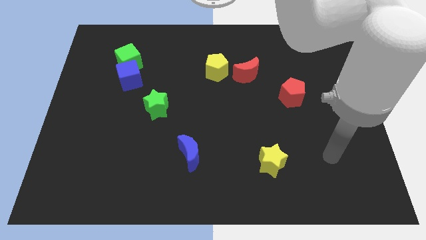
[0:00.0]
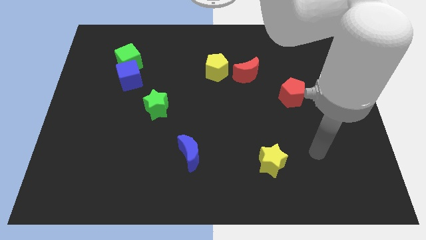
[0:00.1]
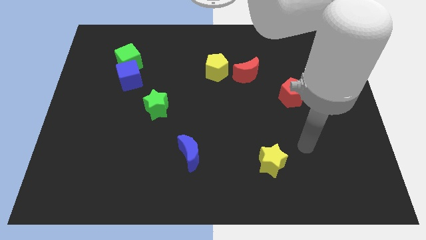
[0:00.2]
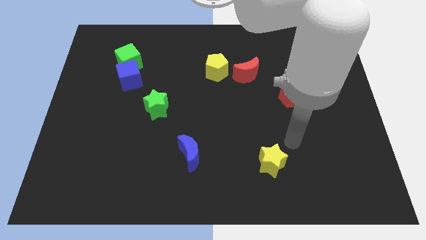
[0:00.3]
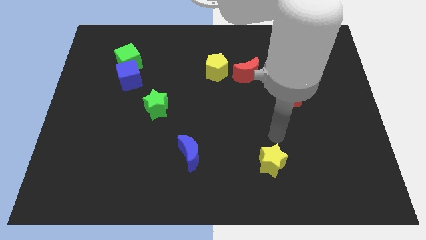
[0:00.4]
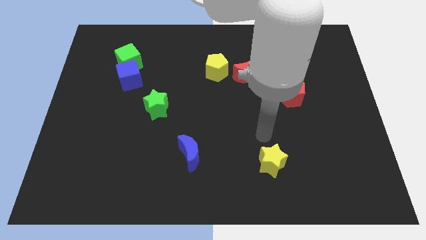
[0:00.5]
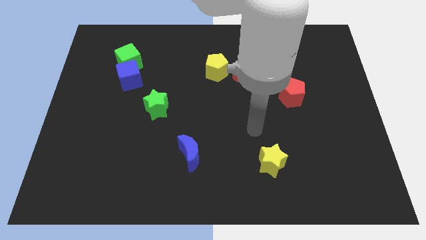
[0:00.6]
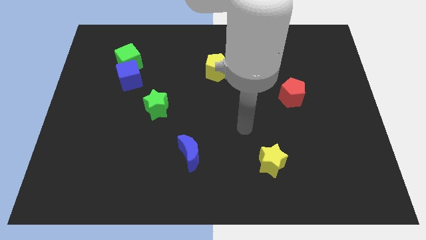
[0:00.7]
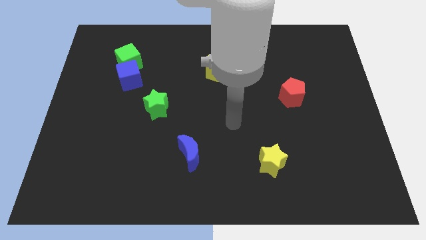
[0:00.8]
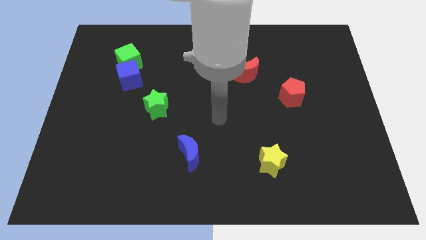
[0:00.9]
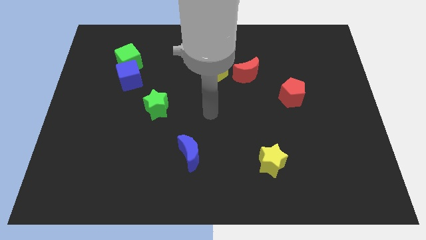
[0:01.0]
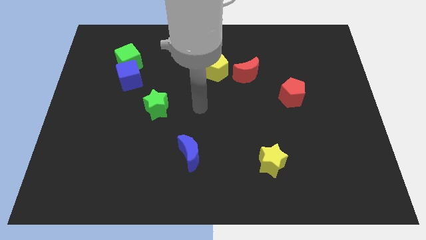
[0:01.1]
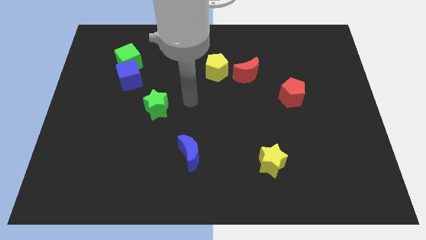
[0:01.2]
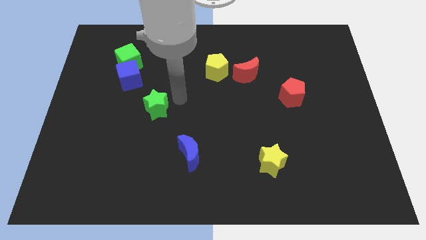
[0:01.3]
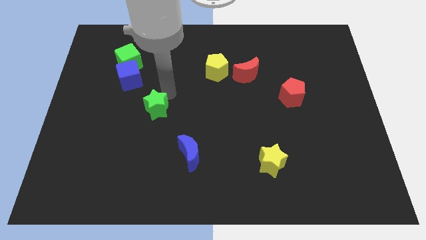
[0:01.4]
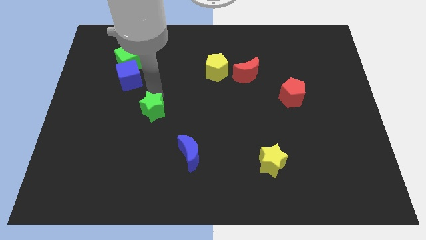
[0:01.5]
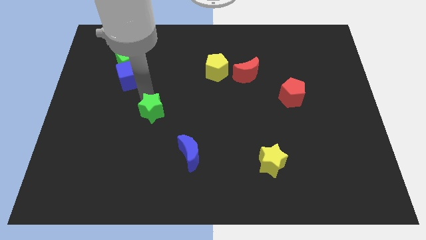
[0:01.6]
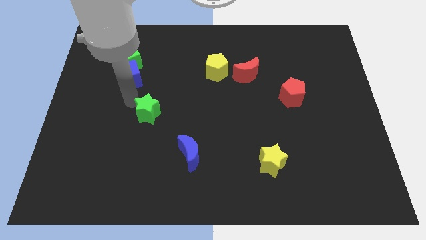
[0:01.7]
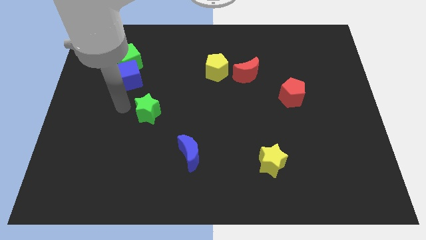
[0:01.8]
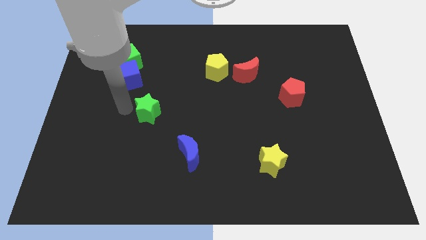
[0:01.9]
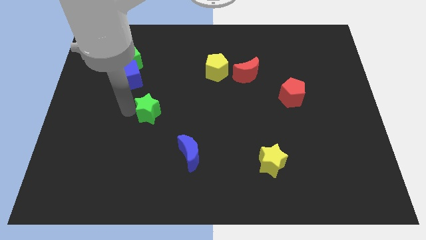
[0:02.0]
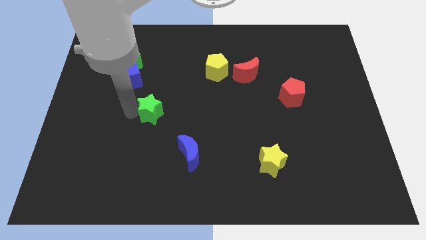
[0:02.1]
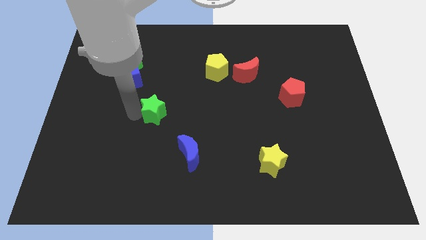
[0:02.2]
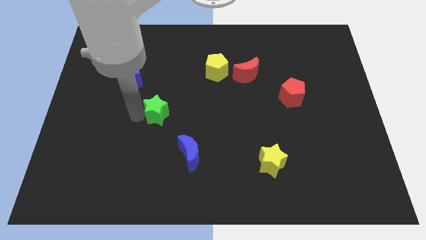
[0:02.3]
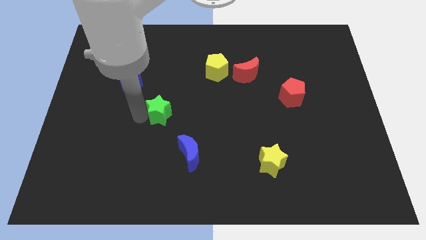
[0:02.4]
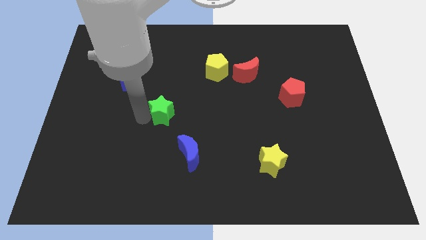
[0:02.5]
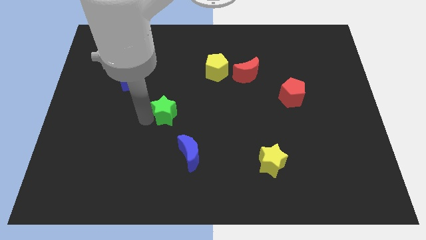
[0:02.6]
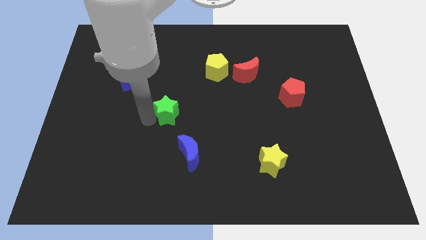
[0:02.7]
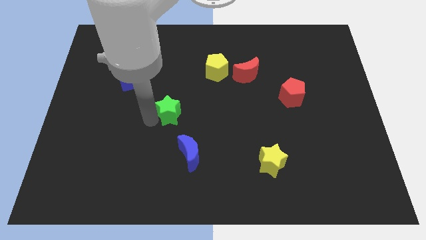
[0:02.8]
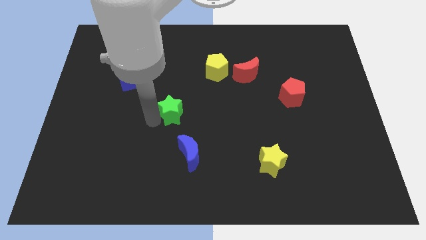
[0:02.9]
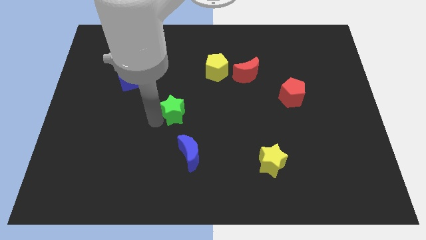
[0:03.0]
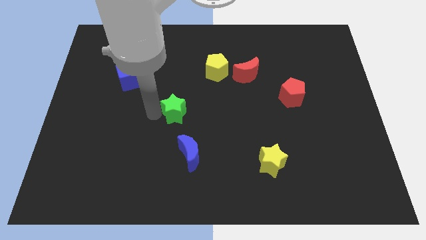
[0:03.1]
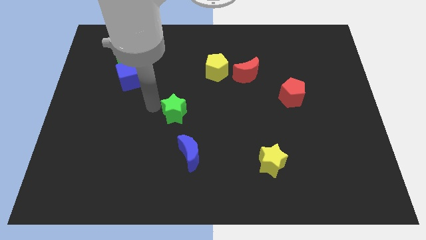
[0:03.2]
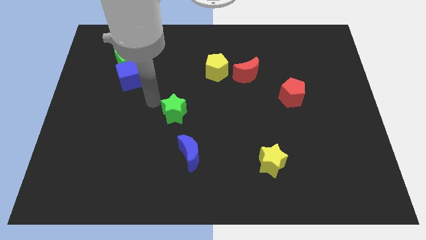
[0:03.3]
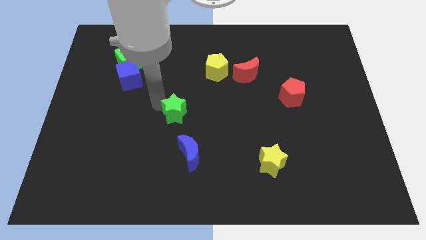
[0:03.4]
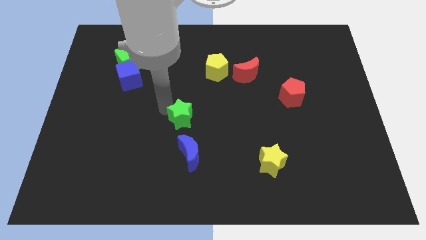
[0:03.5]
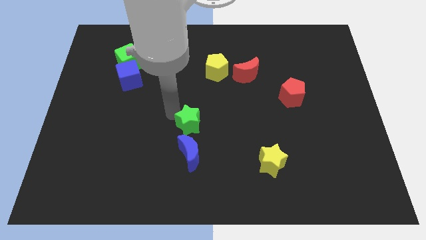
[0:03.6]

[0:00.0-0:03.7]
slightly slide the green star diagonally down and to the right

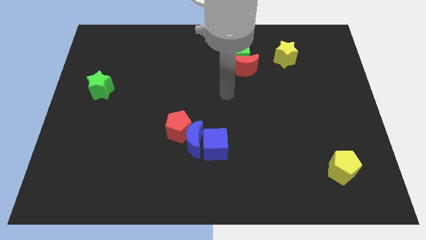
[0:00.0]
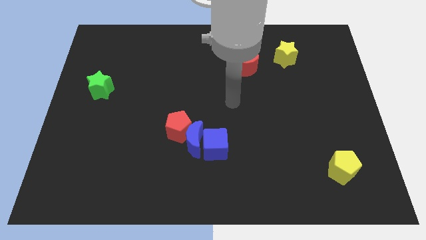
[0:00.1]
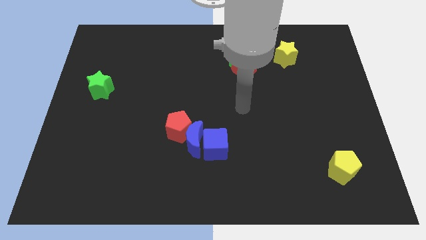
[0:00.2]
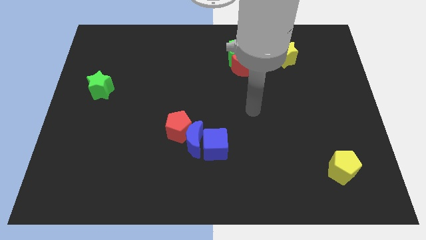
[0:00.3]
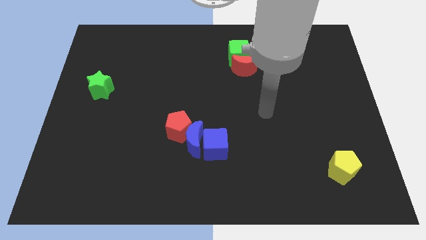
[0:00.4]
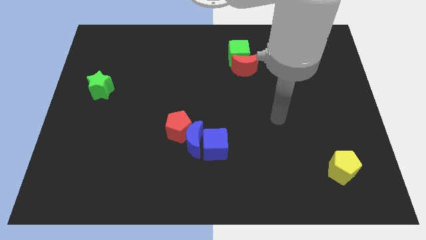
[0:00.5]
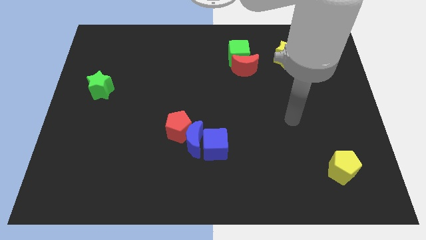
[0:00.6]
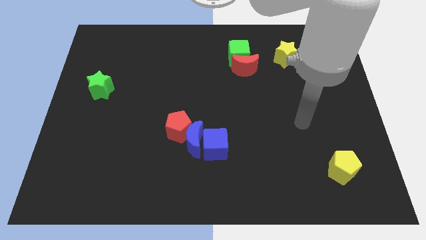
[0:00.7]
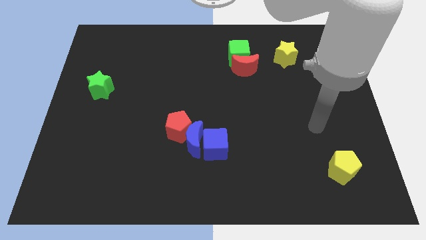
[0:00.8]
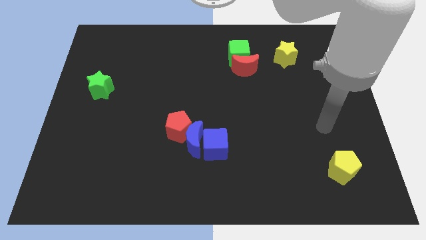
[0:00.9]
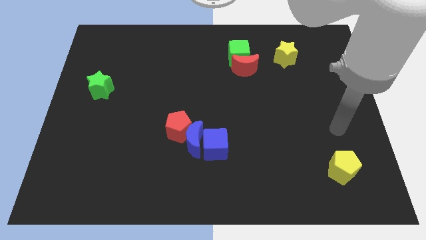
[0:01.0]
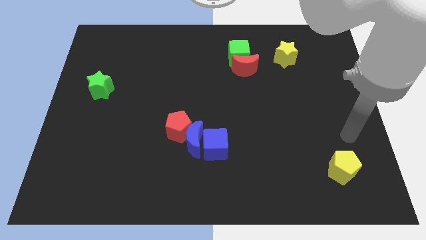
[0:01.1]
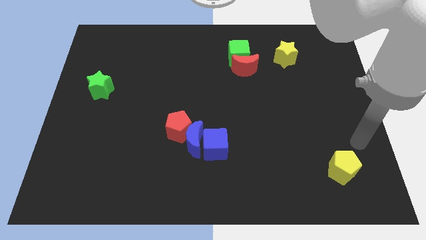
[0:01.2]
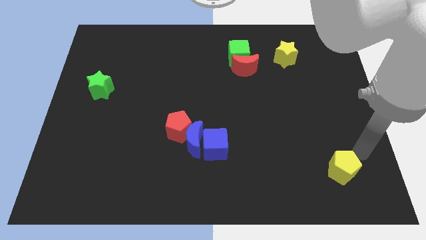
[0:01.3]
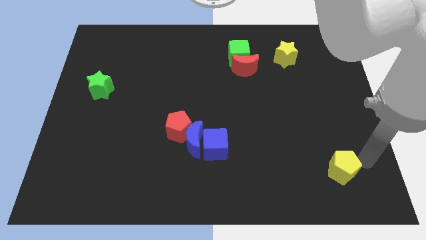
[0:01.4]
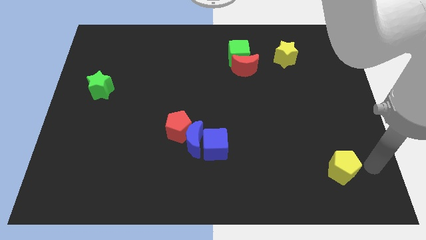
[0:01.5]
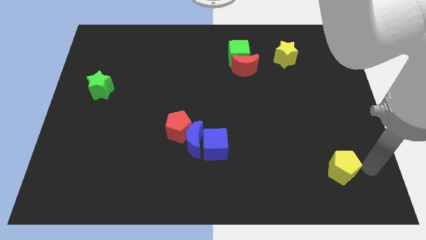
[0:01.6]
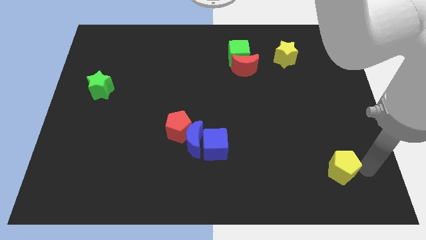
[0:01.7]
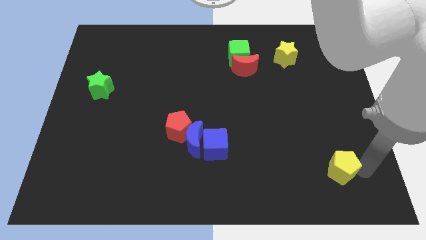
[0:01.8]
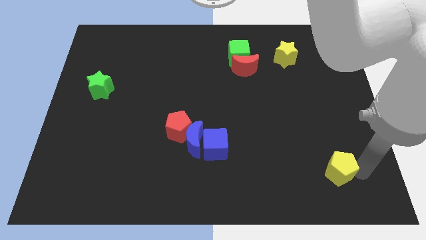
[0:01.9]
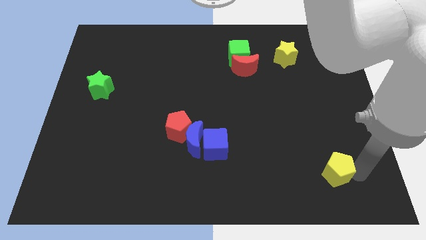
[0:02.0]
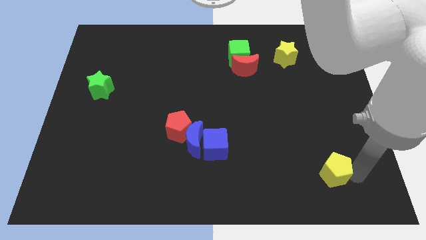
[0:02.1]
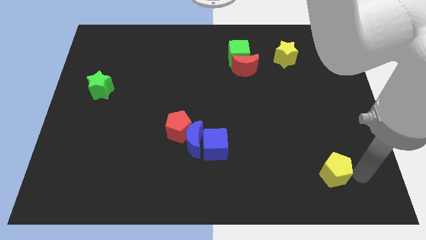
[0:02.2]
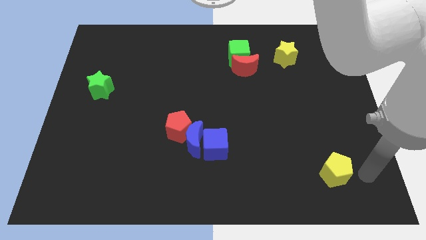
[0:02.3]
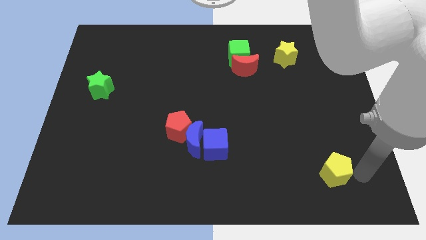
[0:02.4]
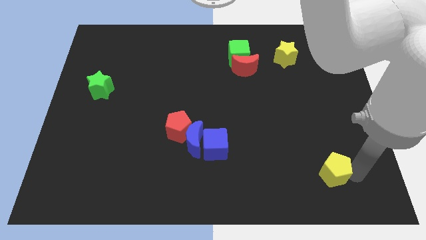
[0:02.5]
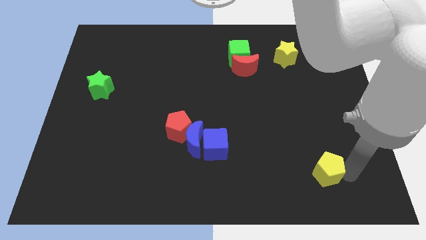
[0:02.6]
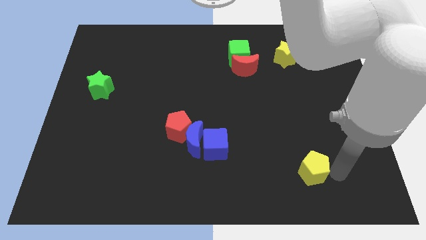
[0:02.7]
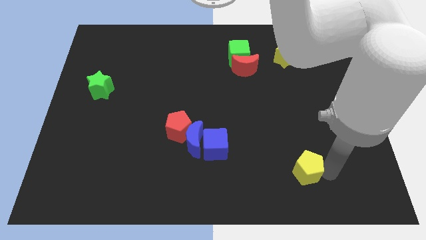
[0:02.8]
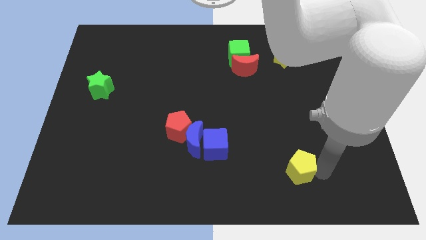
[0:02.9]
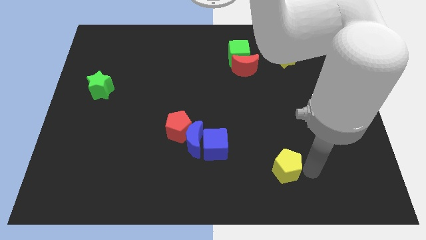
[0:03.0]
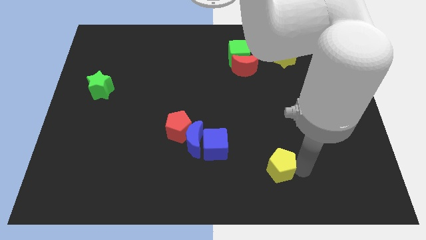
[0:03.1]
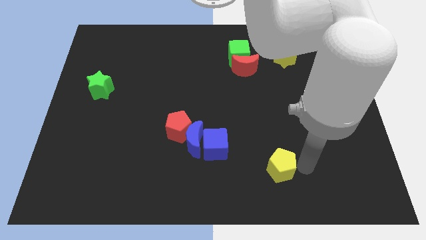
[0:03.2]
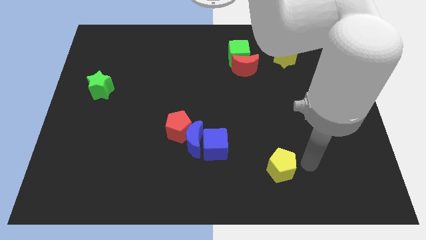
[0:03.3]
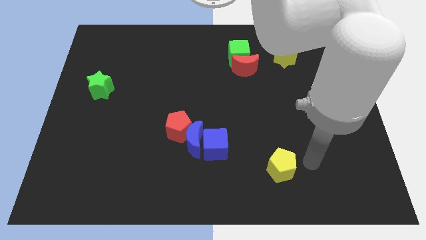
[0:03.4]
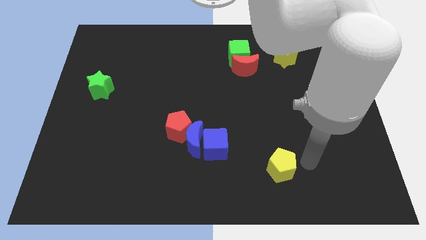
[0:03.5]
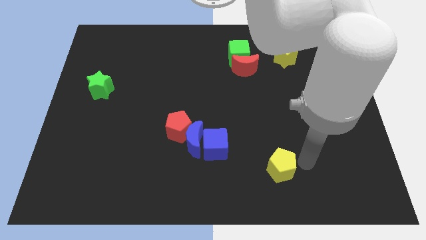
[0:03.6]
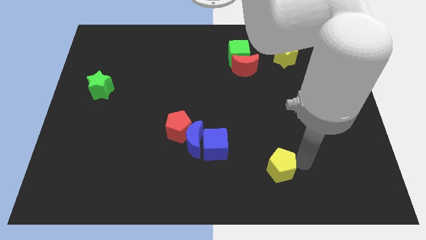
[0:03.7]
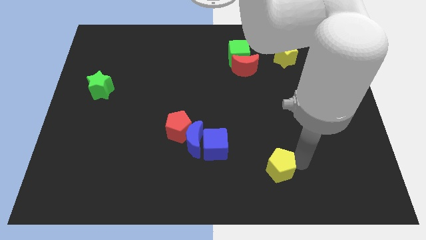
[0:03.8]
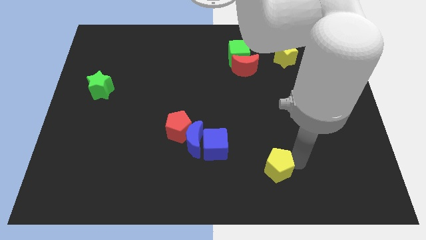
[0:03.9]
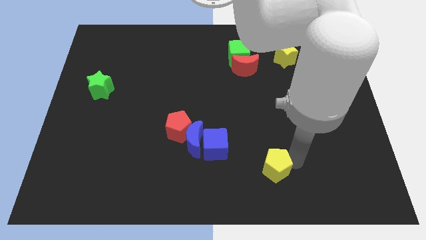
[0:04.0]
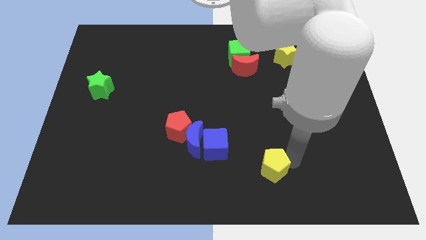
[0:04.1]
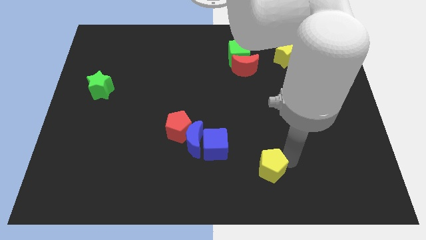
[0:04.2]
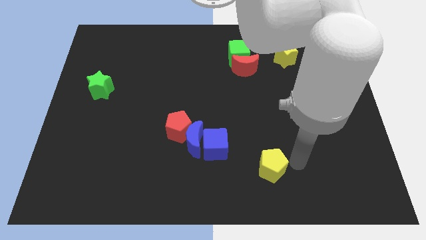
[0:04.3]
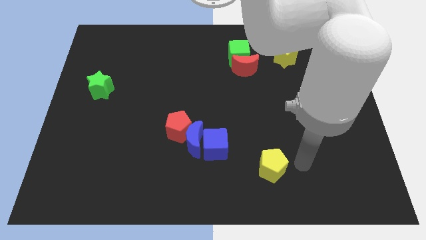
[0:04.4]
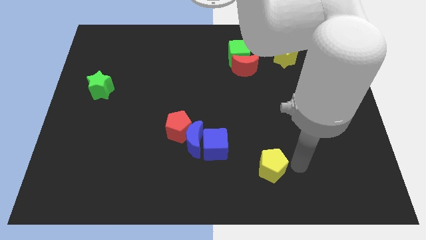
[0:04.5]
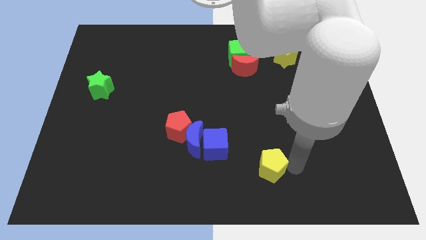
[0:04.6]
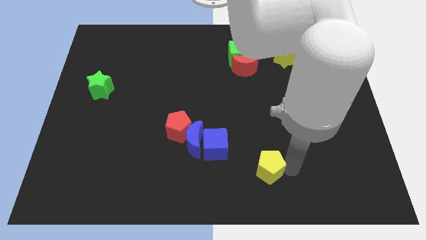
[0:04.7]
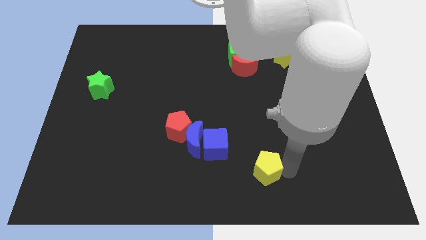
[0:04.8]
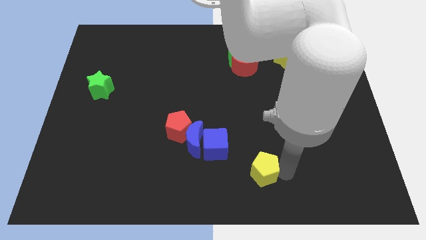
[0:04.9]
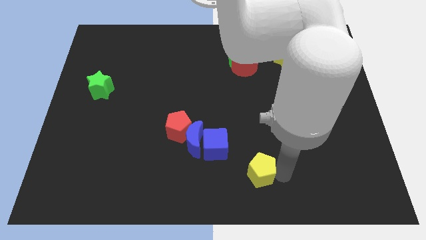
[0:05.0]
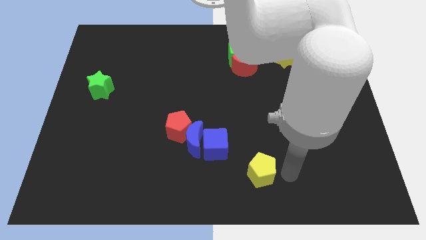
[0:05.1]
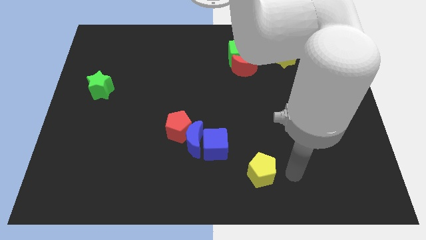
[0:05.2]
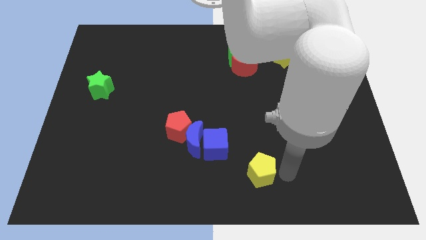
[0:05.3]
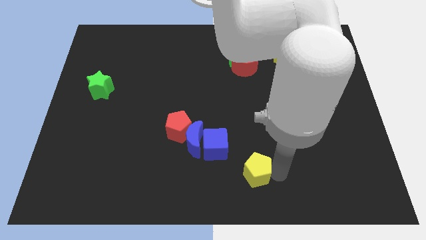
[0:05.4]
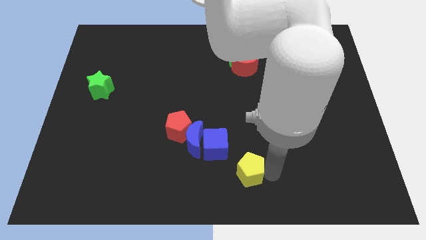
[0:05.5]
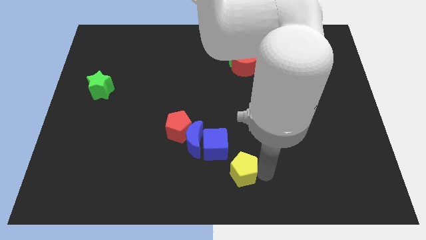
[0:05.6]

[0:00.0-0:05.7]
slide the yellow pentagon to the left
